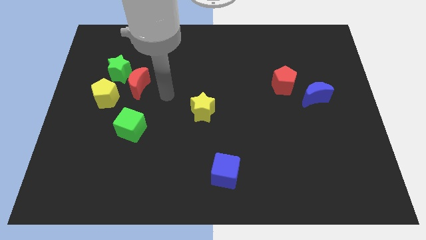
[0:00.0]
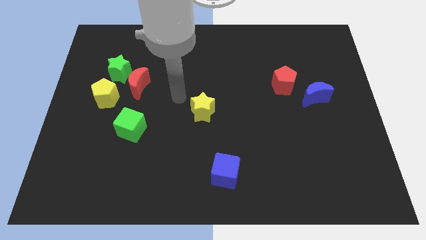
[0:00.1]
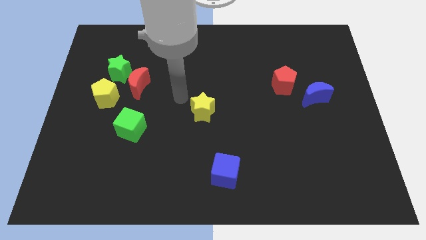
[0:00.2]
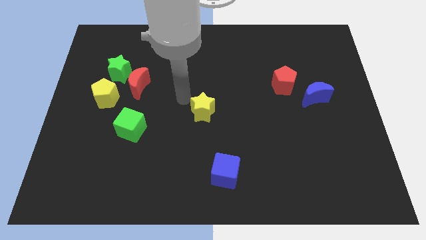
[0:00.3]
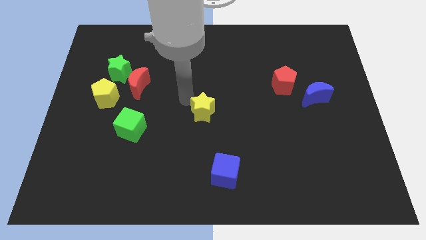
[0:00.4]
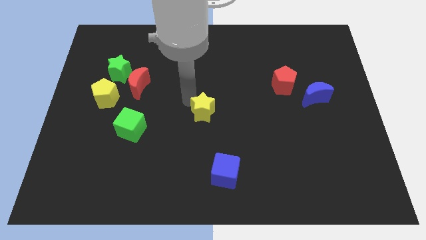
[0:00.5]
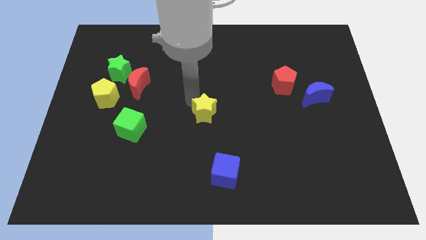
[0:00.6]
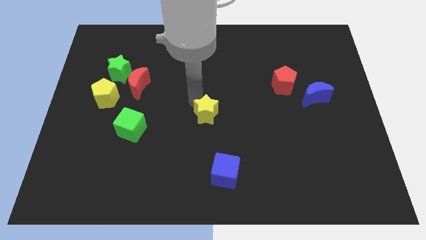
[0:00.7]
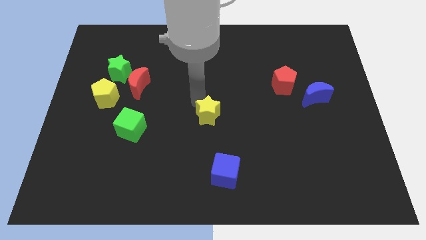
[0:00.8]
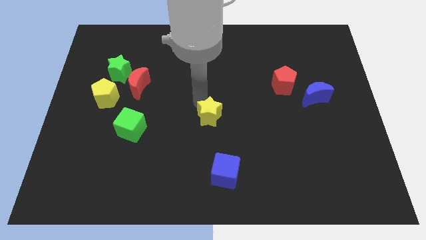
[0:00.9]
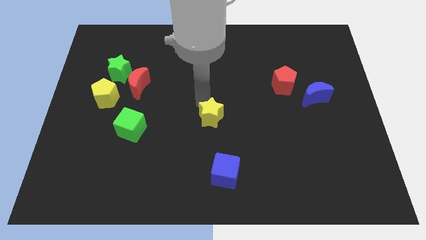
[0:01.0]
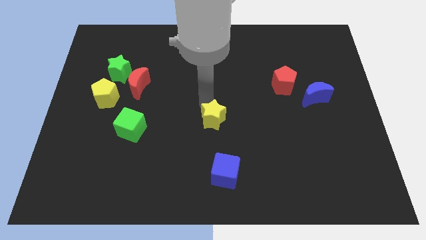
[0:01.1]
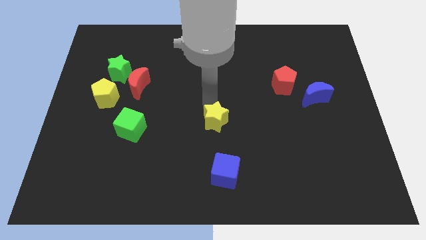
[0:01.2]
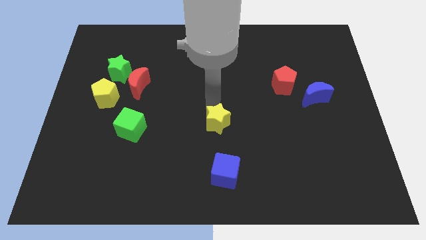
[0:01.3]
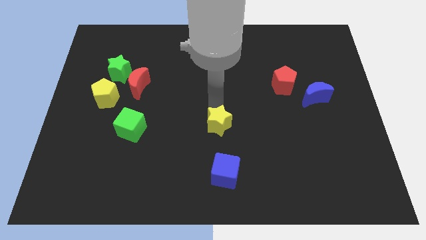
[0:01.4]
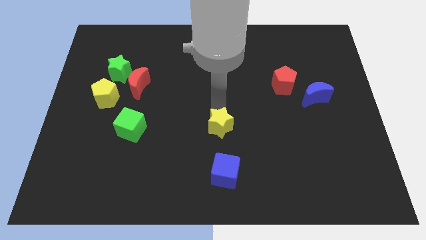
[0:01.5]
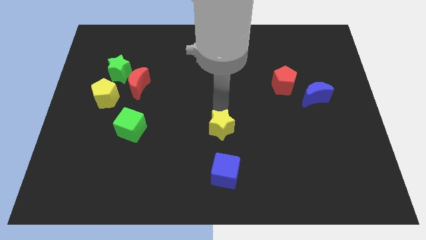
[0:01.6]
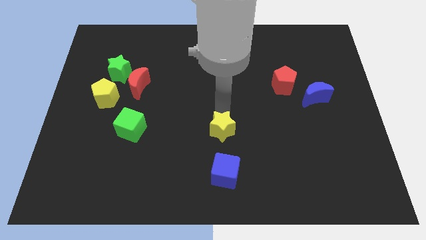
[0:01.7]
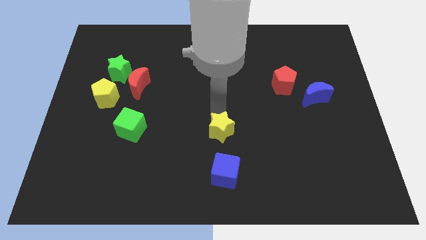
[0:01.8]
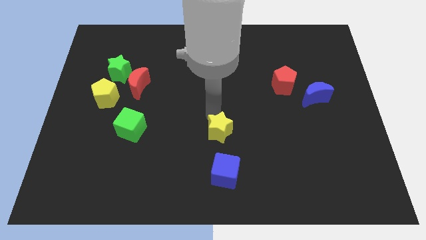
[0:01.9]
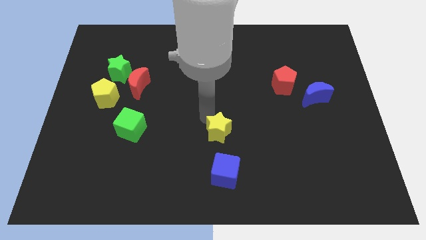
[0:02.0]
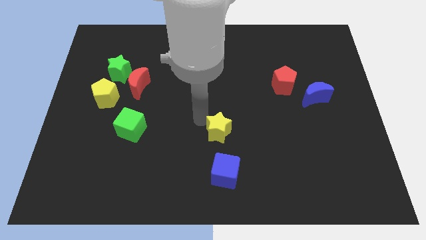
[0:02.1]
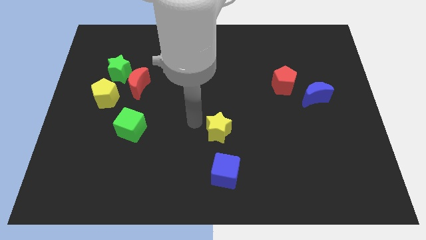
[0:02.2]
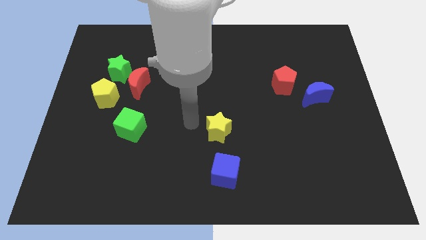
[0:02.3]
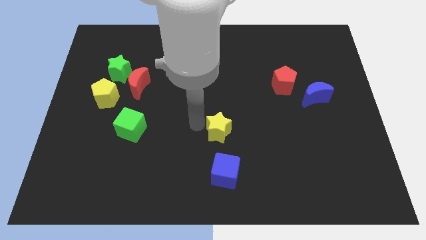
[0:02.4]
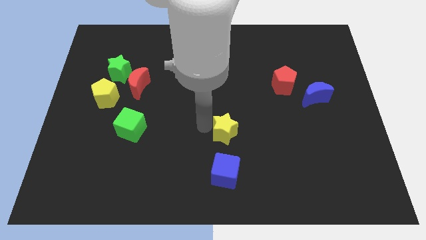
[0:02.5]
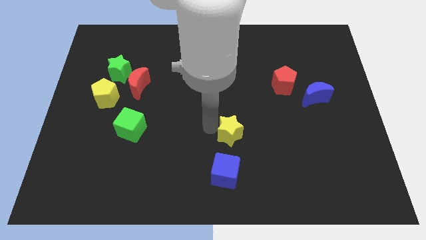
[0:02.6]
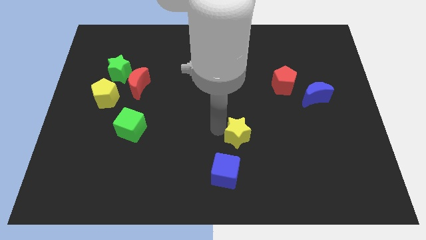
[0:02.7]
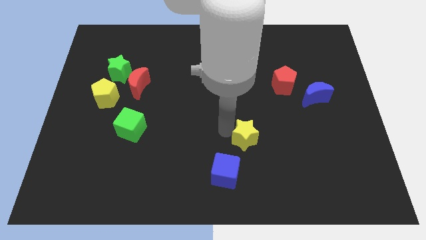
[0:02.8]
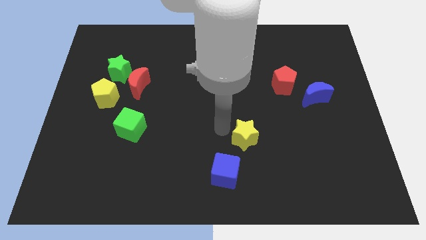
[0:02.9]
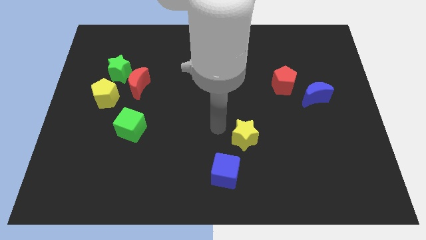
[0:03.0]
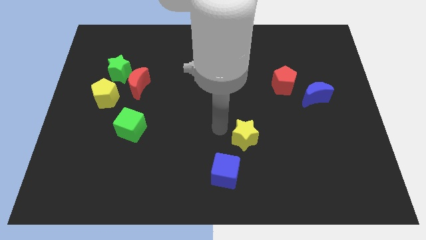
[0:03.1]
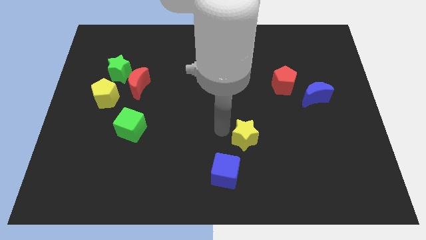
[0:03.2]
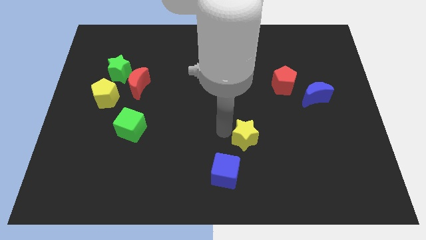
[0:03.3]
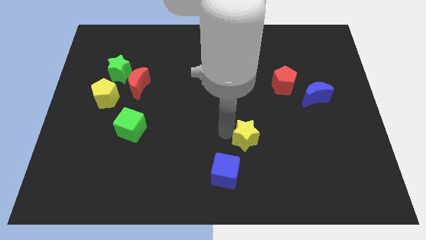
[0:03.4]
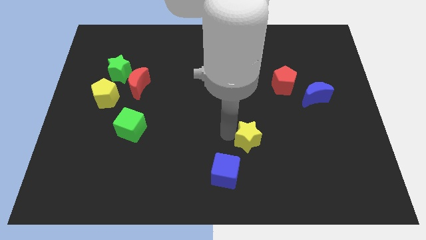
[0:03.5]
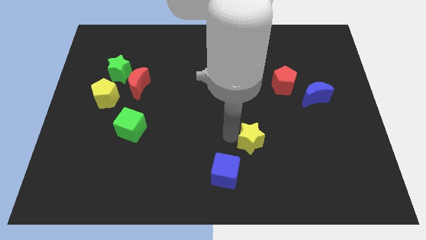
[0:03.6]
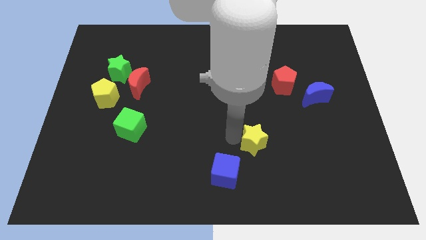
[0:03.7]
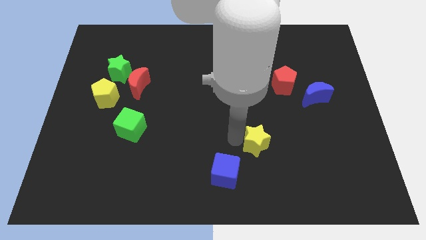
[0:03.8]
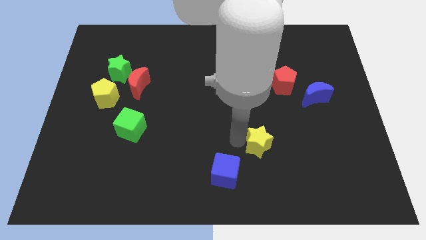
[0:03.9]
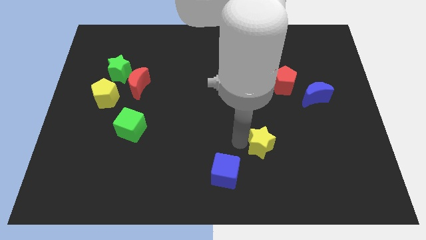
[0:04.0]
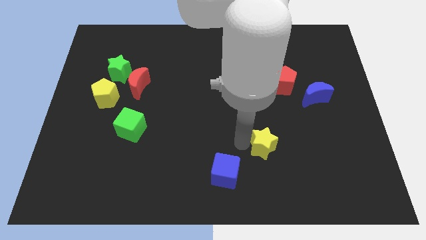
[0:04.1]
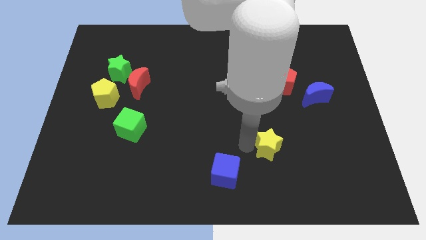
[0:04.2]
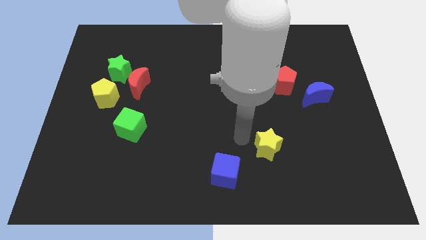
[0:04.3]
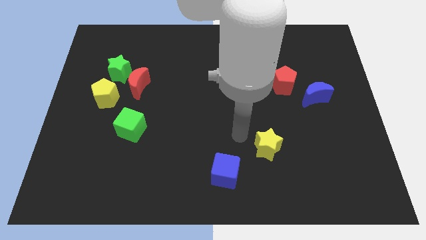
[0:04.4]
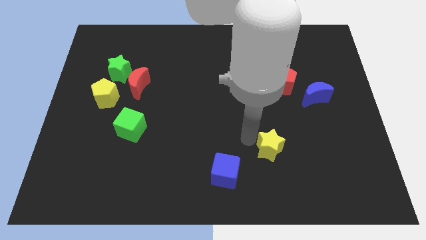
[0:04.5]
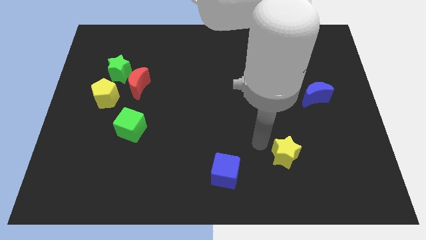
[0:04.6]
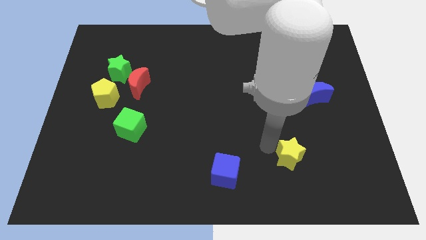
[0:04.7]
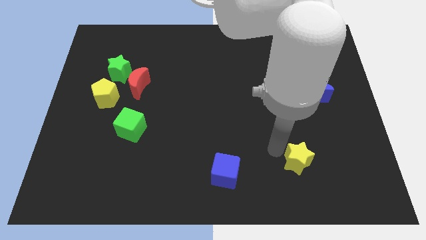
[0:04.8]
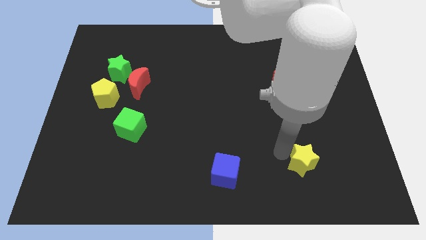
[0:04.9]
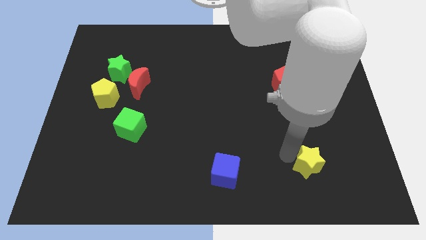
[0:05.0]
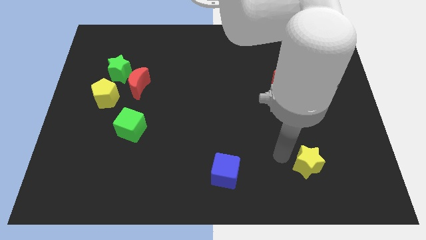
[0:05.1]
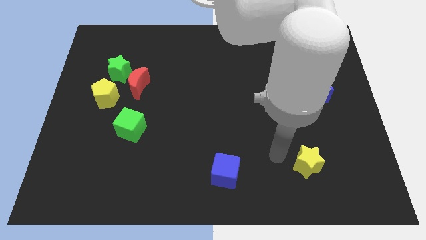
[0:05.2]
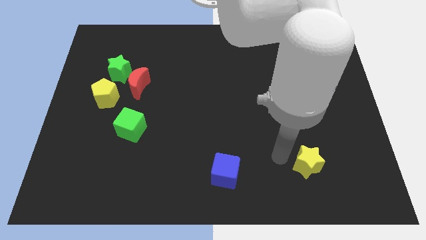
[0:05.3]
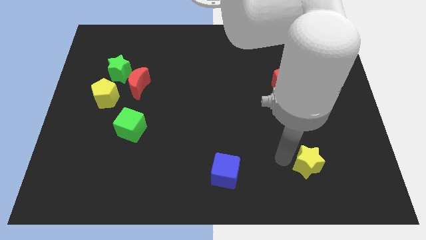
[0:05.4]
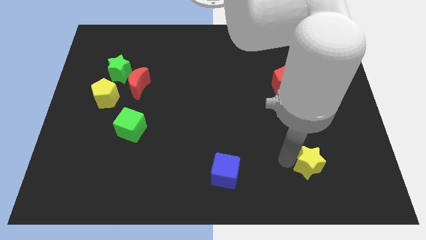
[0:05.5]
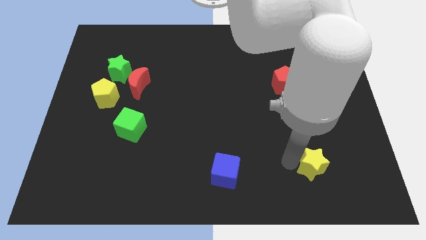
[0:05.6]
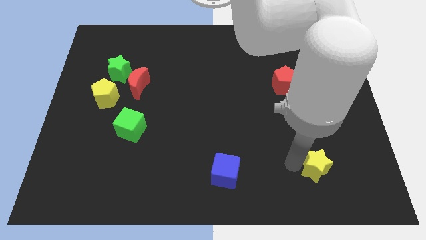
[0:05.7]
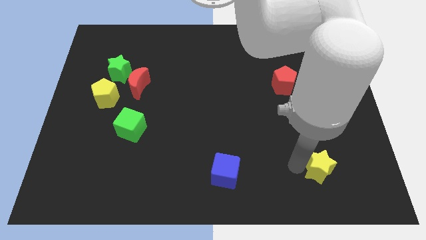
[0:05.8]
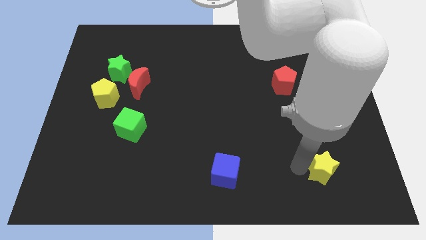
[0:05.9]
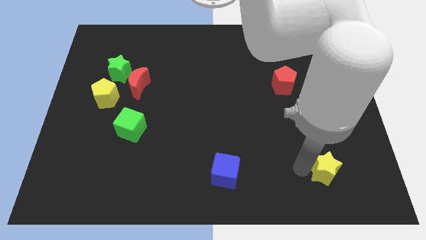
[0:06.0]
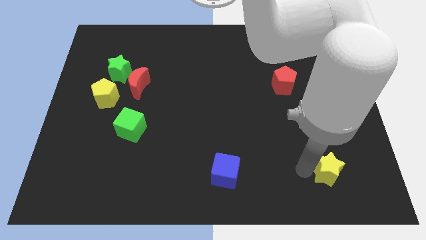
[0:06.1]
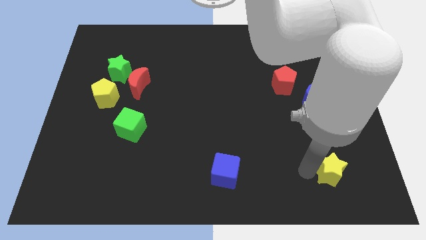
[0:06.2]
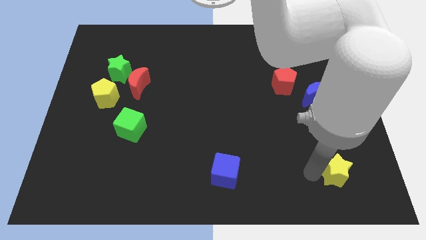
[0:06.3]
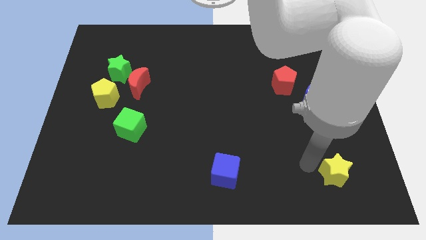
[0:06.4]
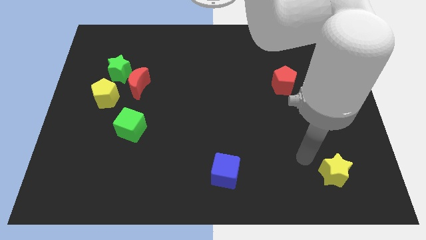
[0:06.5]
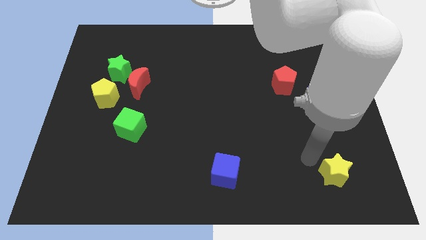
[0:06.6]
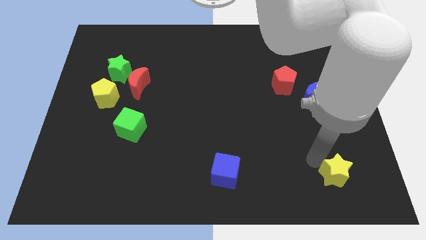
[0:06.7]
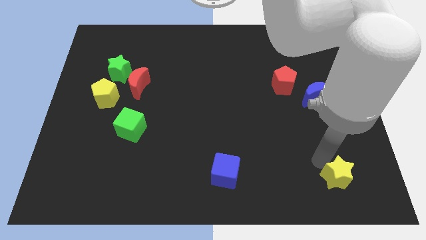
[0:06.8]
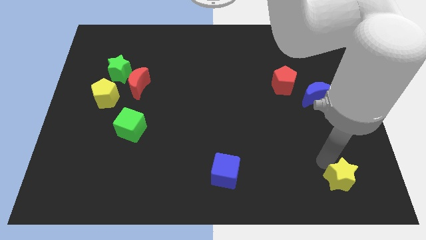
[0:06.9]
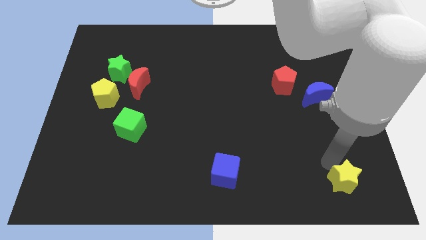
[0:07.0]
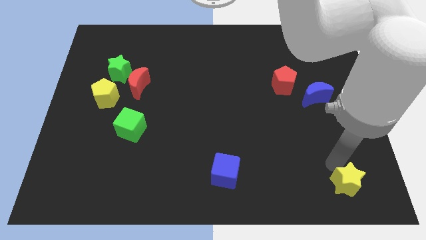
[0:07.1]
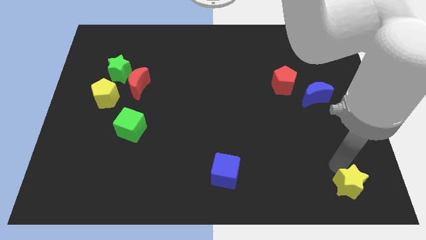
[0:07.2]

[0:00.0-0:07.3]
move the yellow star to the bottom right corner
